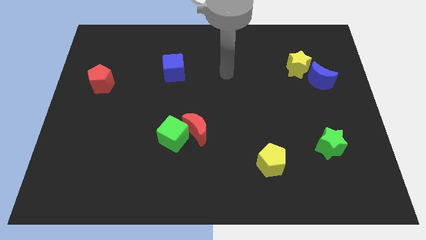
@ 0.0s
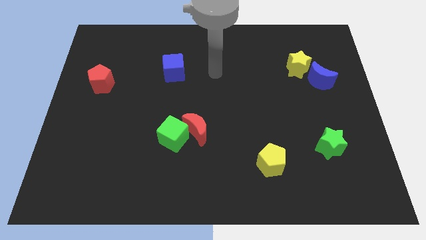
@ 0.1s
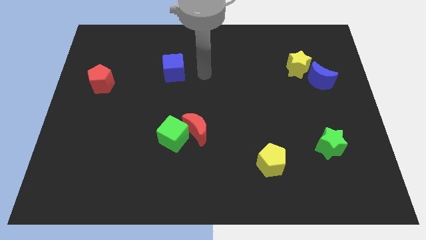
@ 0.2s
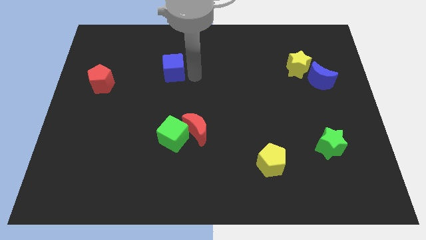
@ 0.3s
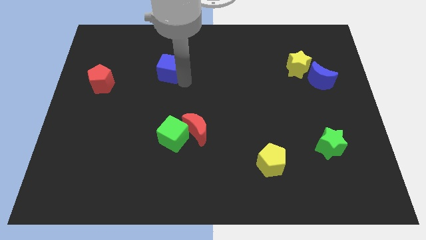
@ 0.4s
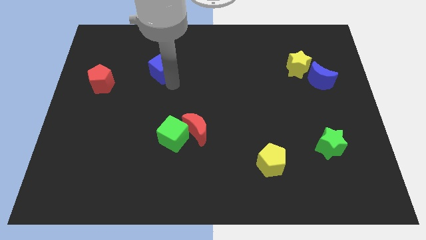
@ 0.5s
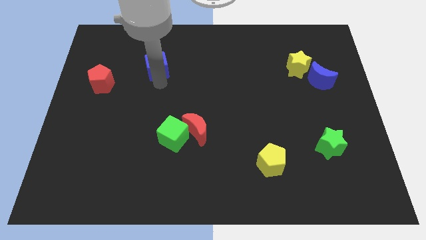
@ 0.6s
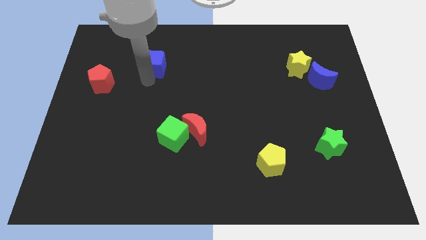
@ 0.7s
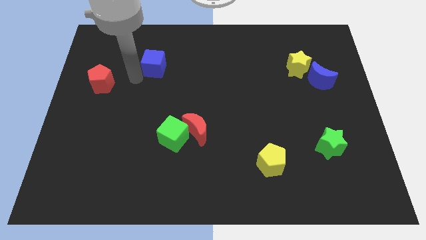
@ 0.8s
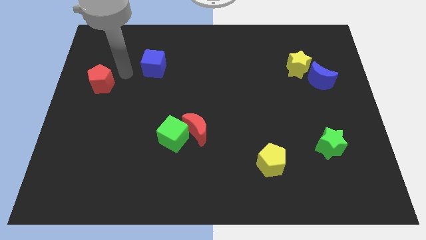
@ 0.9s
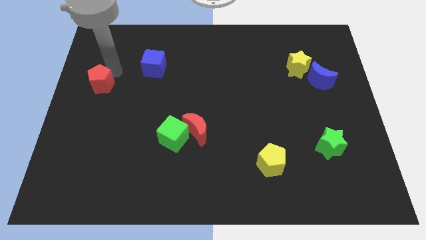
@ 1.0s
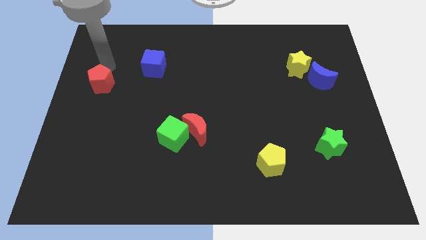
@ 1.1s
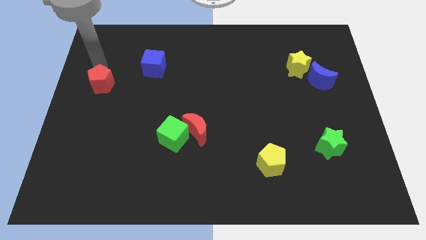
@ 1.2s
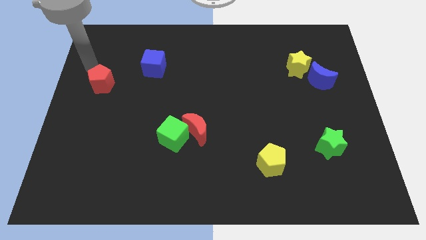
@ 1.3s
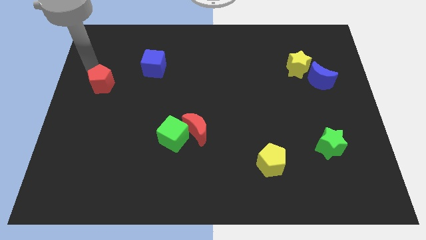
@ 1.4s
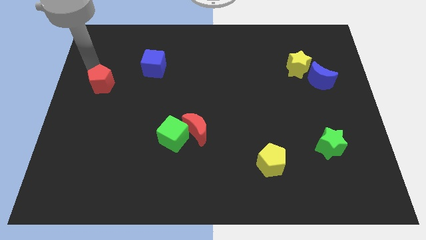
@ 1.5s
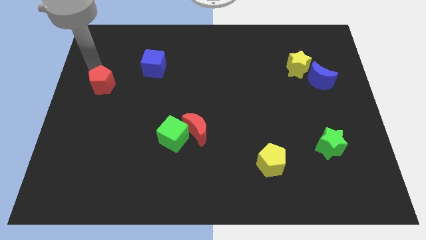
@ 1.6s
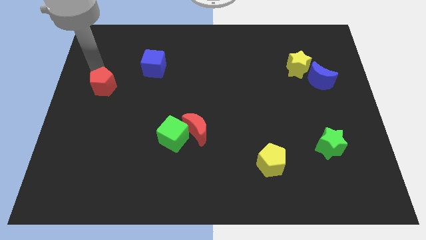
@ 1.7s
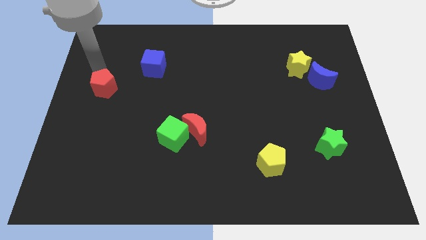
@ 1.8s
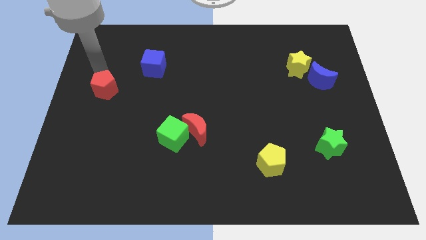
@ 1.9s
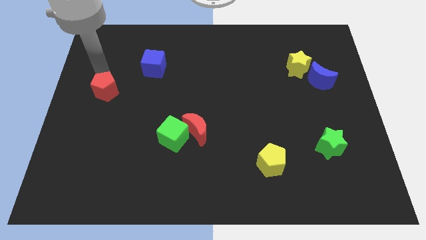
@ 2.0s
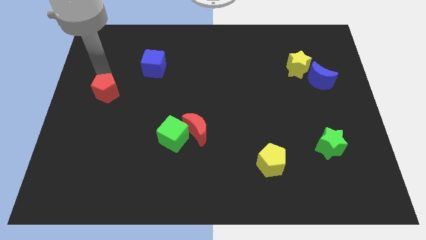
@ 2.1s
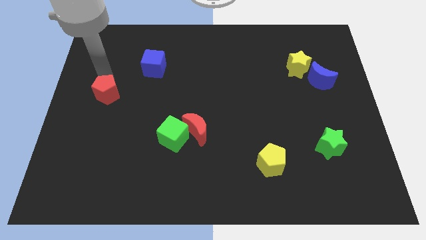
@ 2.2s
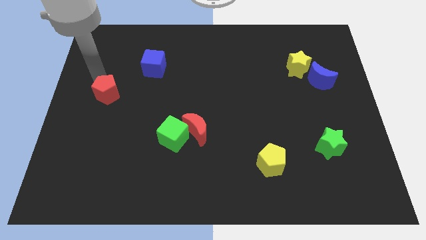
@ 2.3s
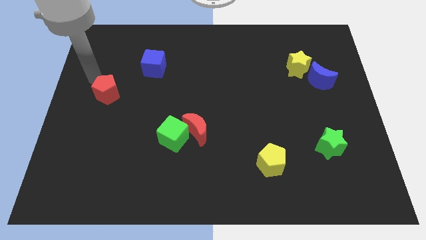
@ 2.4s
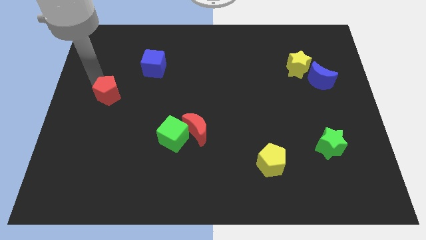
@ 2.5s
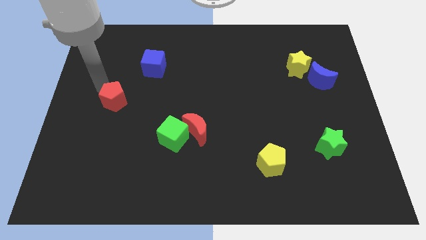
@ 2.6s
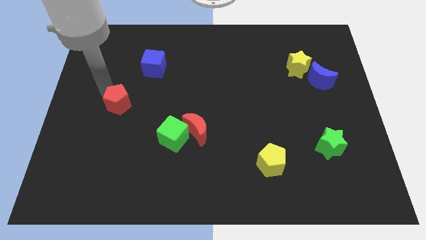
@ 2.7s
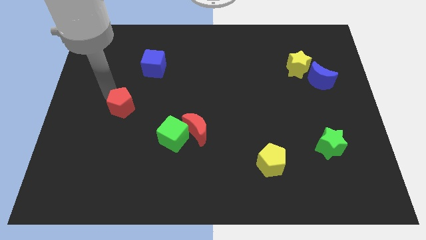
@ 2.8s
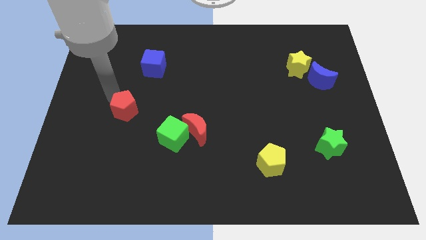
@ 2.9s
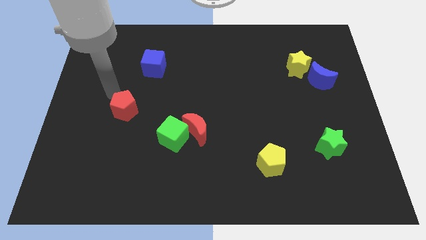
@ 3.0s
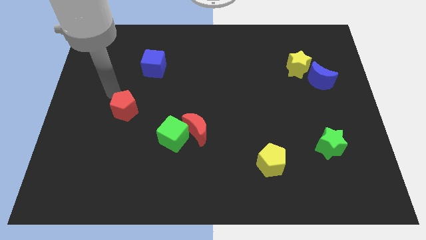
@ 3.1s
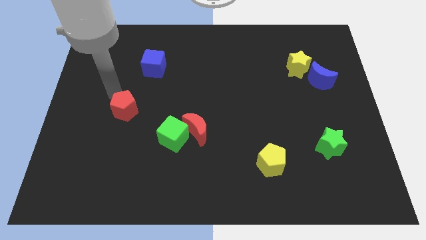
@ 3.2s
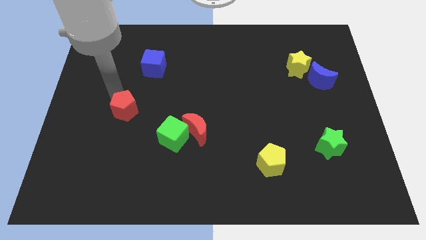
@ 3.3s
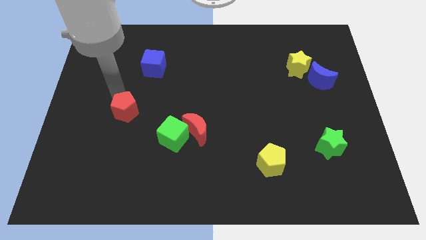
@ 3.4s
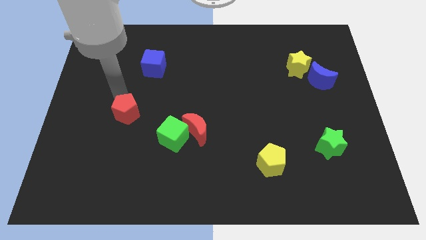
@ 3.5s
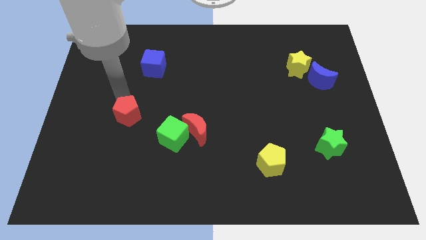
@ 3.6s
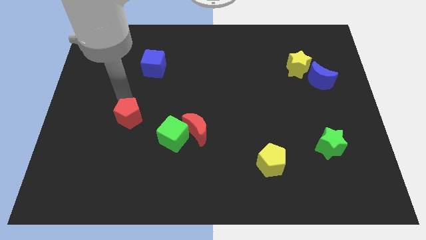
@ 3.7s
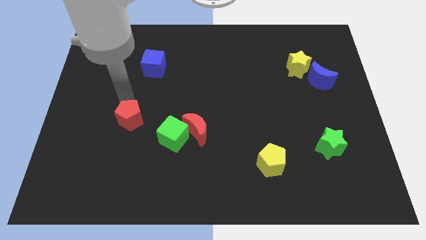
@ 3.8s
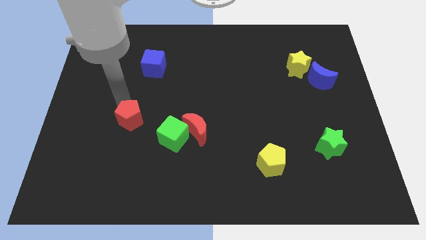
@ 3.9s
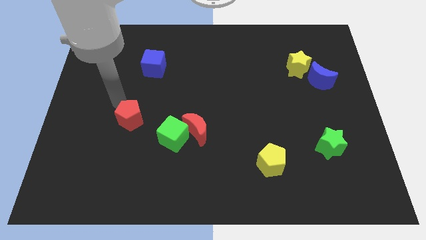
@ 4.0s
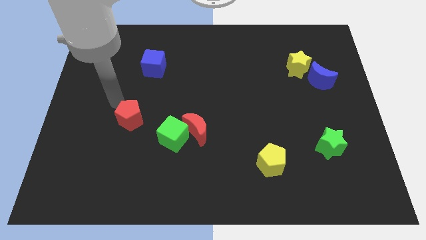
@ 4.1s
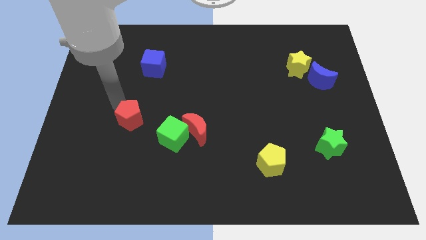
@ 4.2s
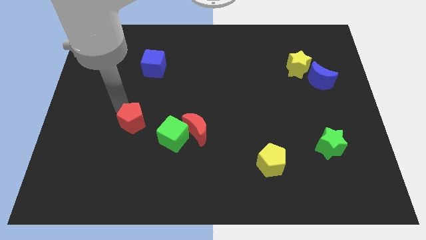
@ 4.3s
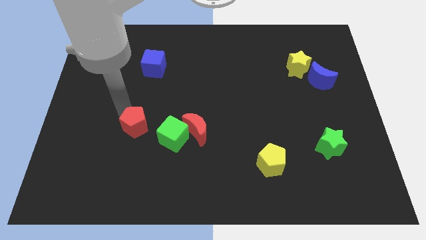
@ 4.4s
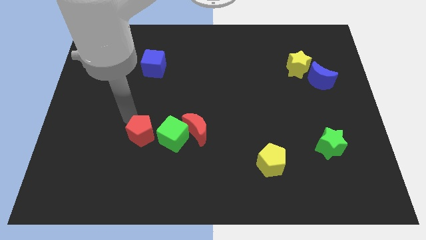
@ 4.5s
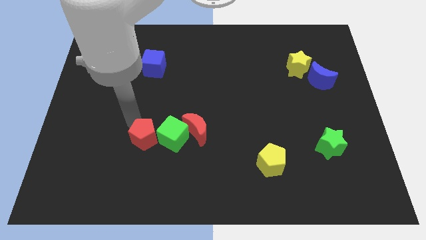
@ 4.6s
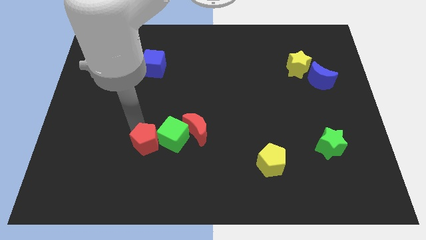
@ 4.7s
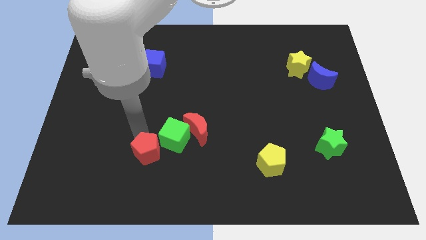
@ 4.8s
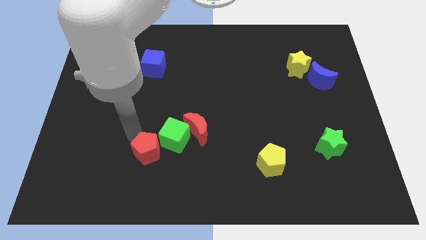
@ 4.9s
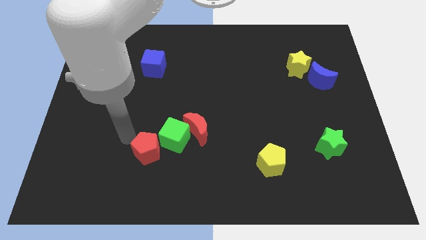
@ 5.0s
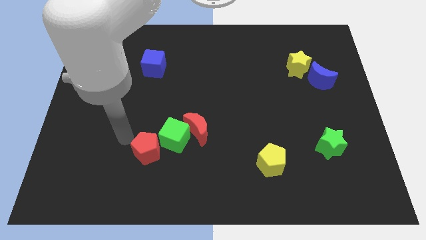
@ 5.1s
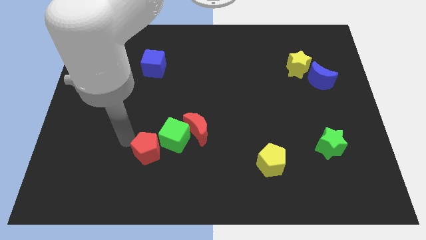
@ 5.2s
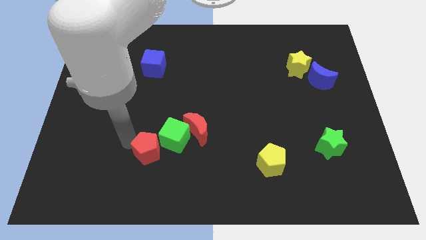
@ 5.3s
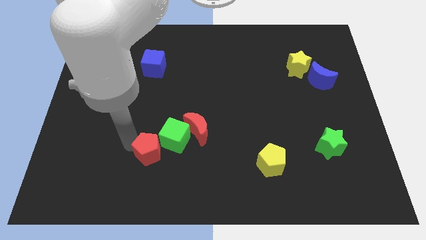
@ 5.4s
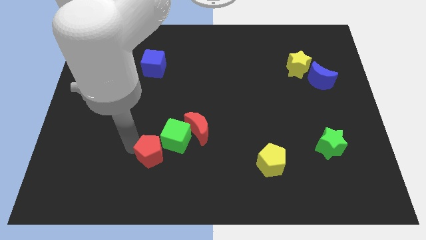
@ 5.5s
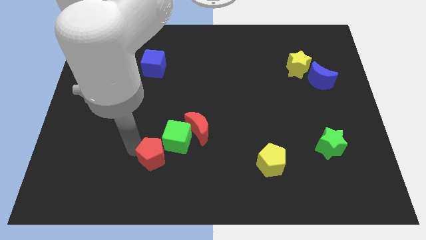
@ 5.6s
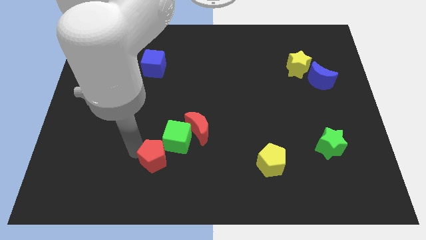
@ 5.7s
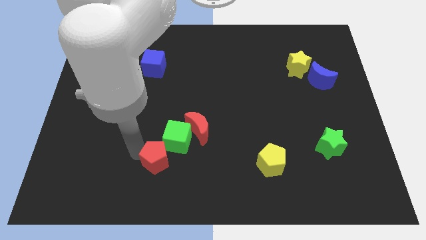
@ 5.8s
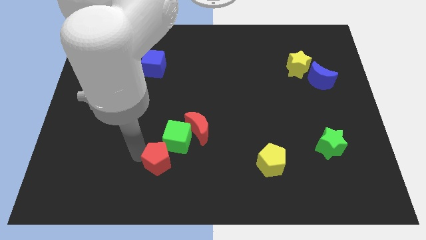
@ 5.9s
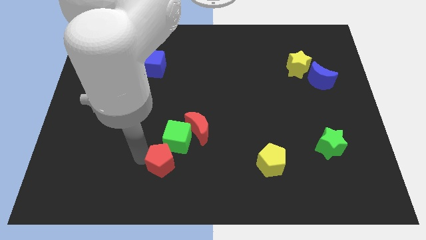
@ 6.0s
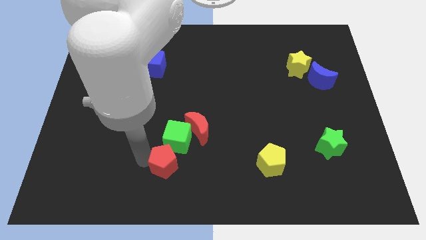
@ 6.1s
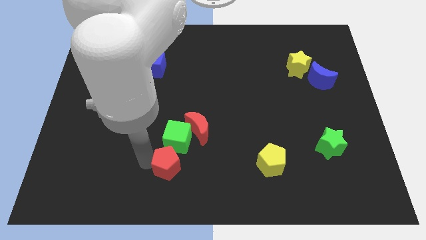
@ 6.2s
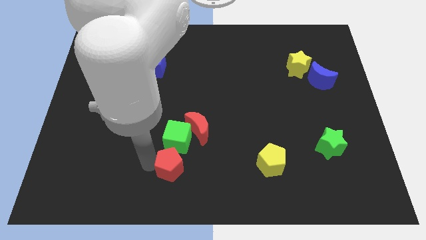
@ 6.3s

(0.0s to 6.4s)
put the red pentagon to the bottom
